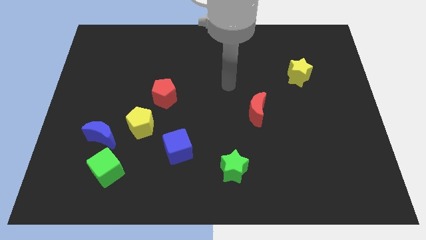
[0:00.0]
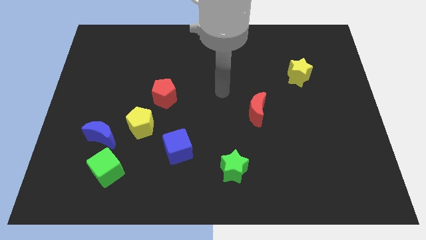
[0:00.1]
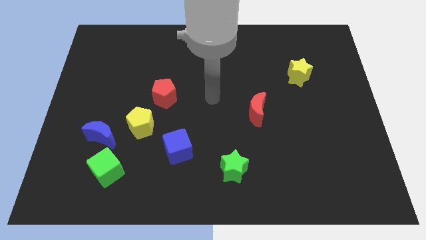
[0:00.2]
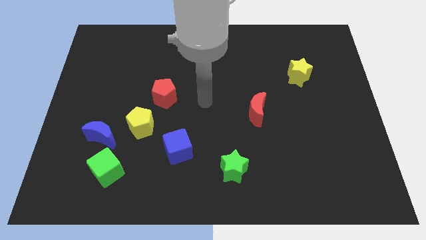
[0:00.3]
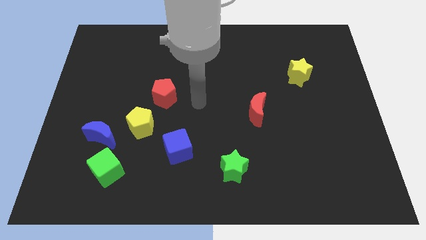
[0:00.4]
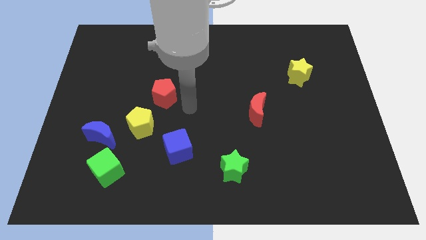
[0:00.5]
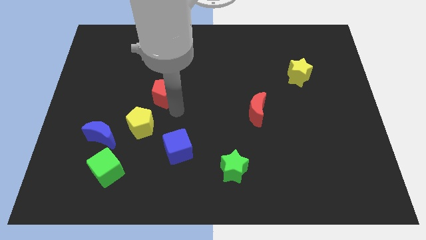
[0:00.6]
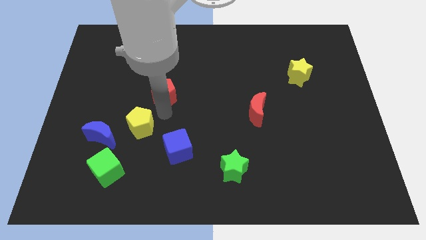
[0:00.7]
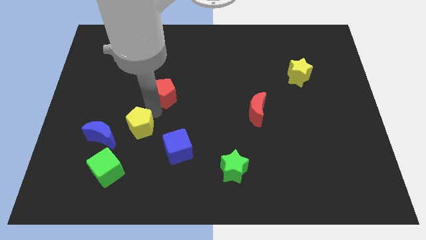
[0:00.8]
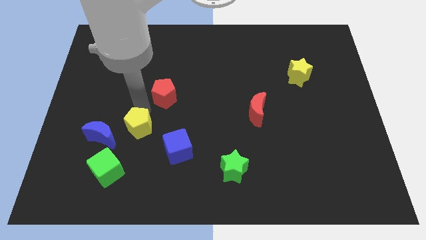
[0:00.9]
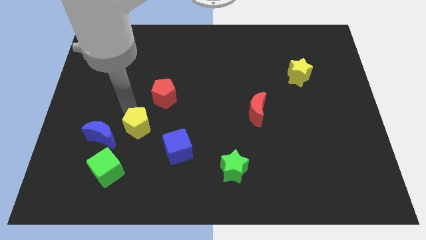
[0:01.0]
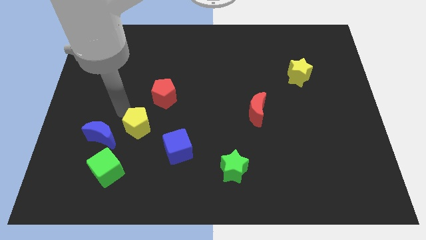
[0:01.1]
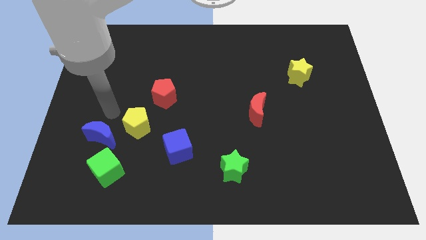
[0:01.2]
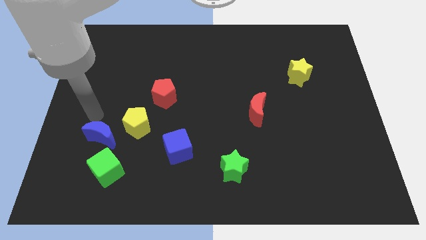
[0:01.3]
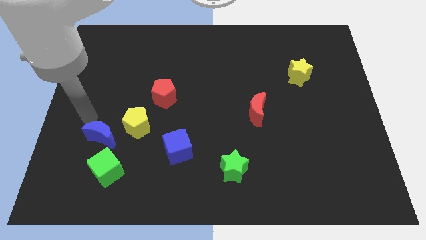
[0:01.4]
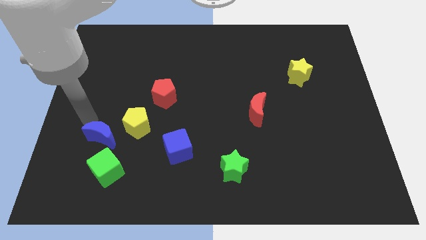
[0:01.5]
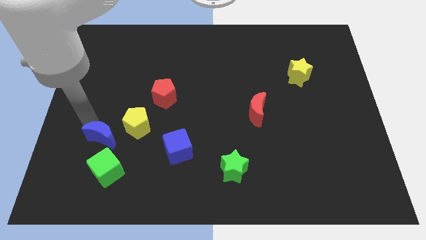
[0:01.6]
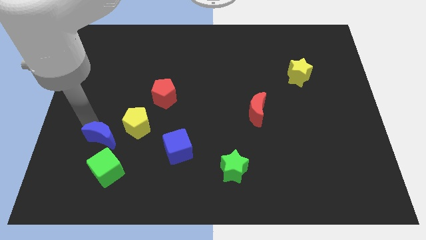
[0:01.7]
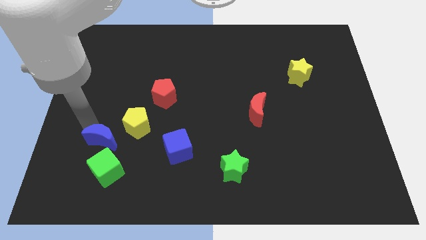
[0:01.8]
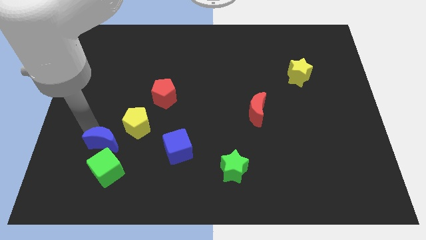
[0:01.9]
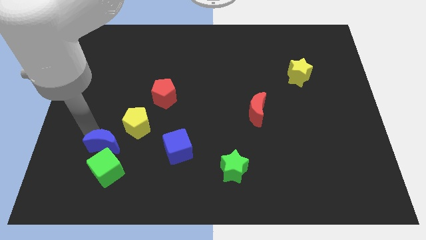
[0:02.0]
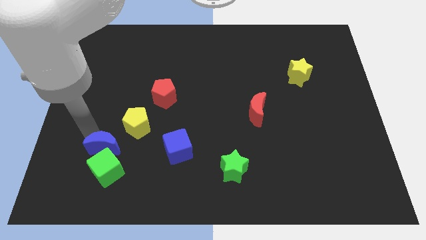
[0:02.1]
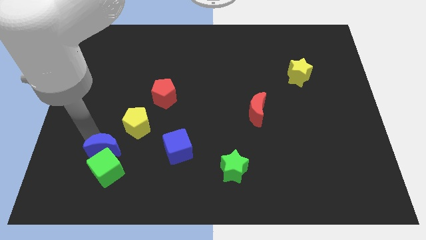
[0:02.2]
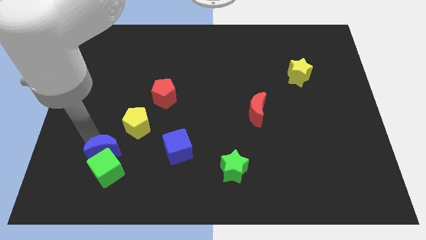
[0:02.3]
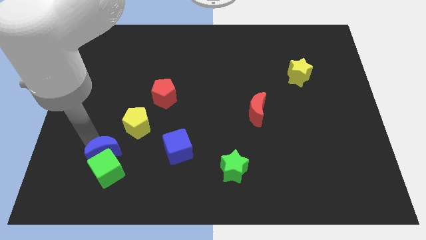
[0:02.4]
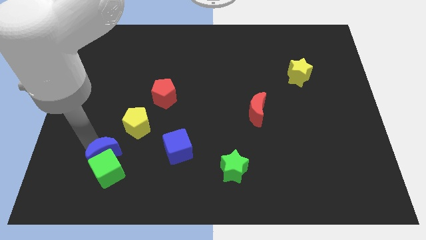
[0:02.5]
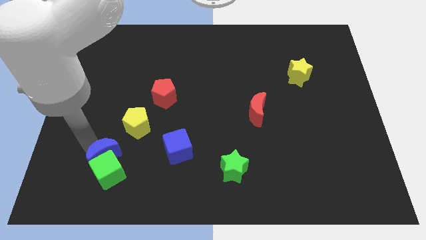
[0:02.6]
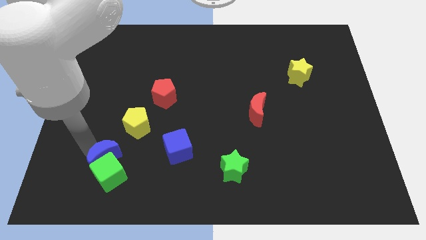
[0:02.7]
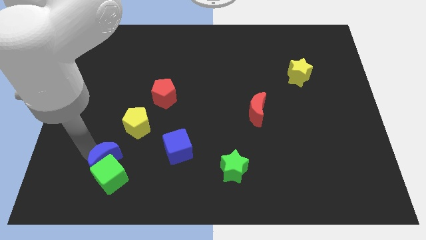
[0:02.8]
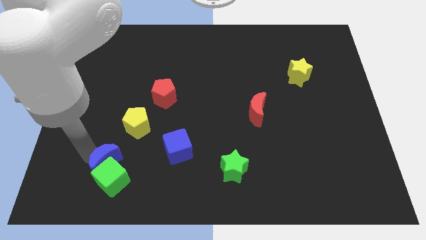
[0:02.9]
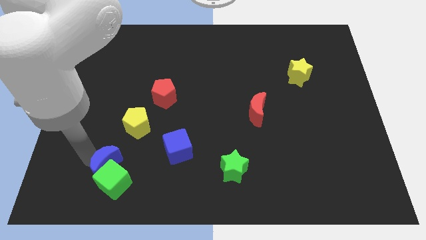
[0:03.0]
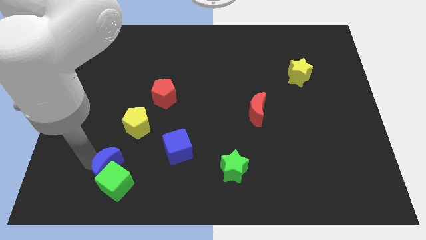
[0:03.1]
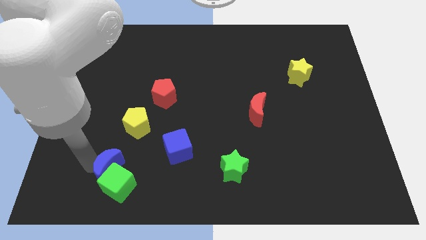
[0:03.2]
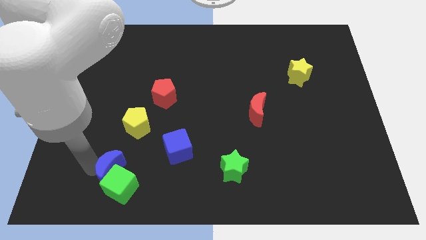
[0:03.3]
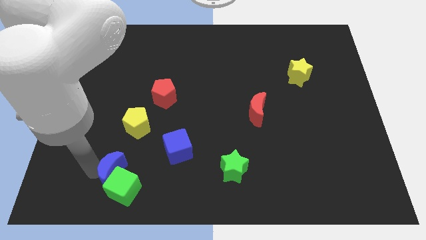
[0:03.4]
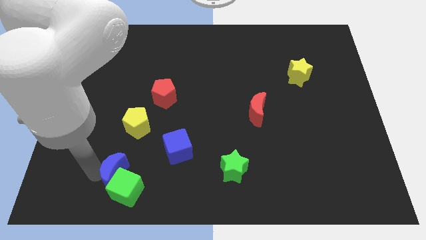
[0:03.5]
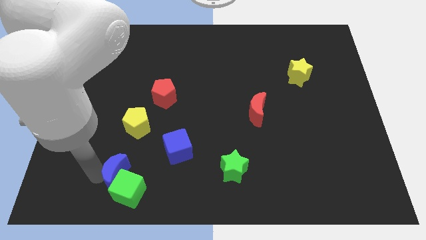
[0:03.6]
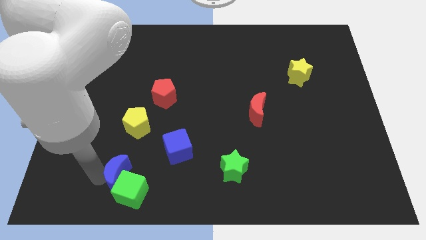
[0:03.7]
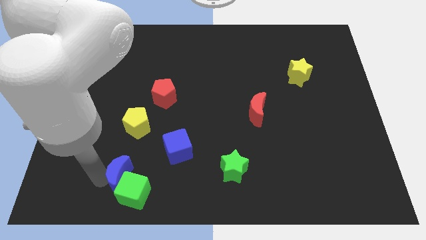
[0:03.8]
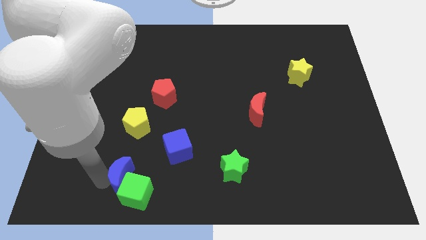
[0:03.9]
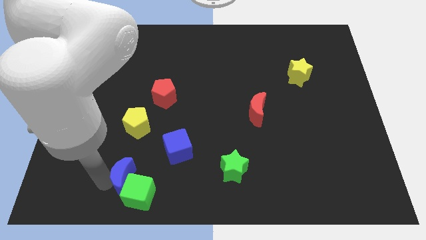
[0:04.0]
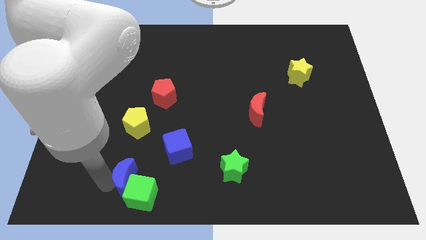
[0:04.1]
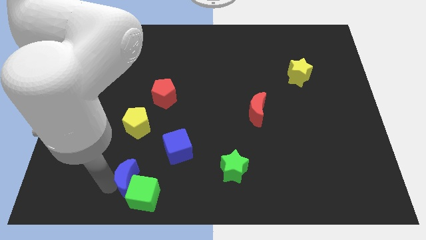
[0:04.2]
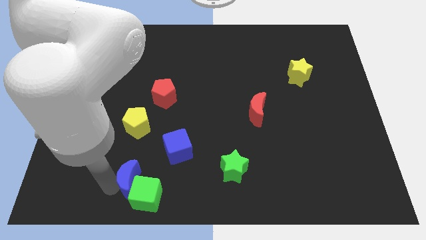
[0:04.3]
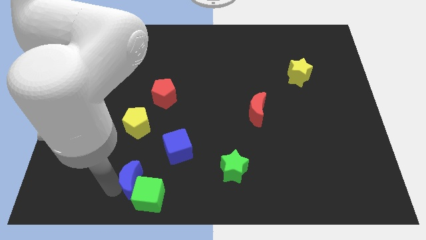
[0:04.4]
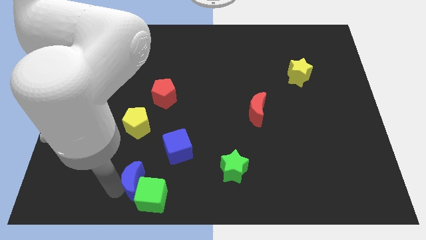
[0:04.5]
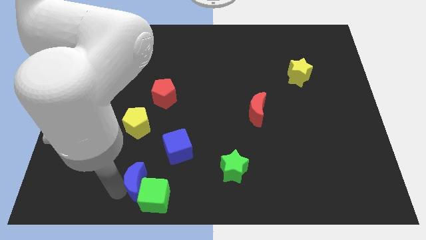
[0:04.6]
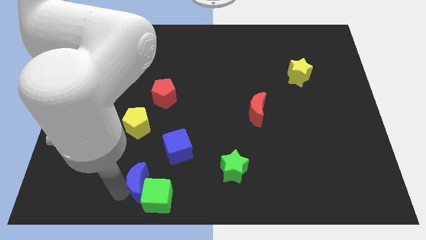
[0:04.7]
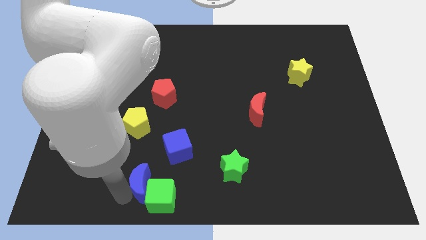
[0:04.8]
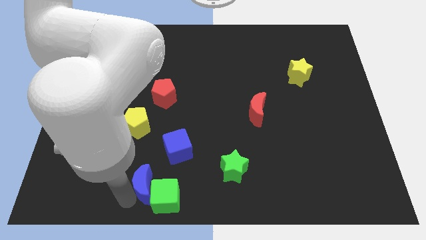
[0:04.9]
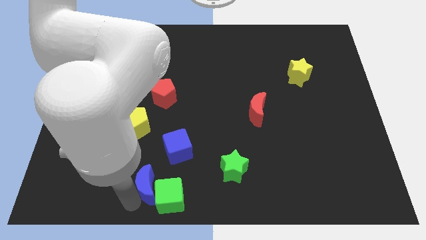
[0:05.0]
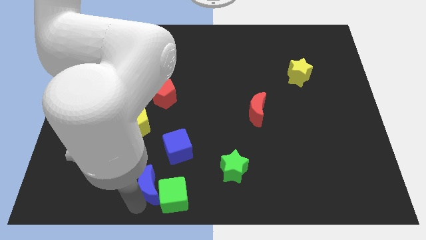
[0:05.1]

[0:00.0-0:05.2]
move the blue moon to the bottom
